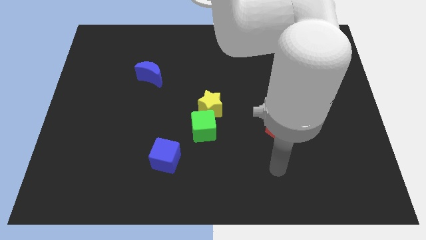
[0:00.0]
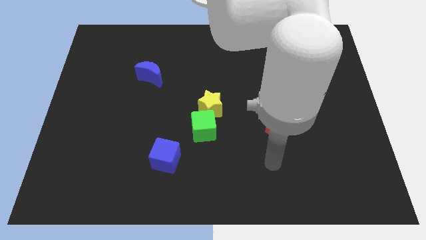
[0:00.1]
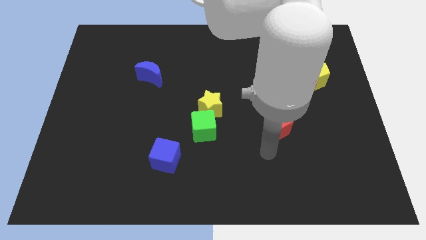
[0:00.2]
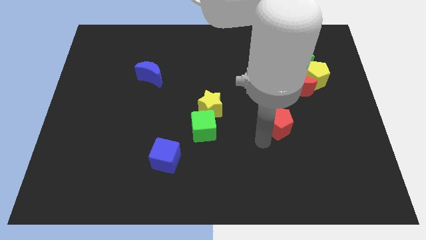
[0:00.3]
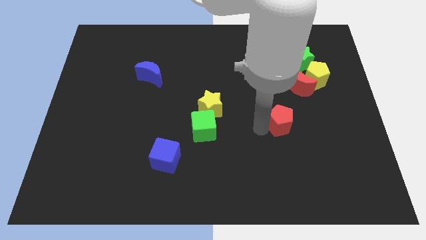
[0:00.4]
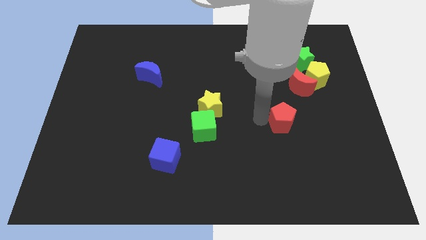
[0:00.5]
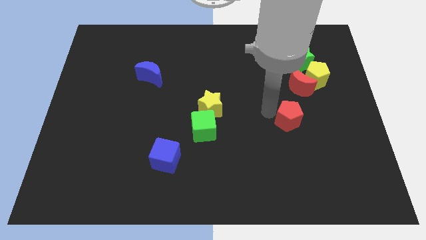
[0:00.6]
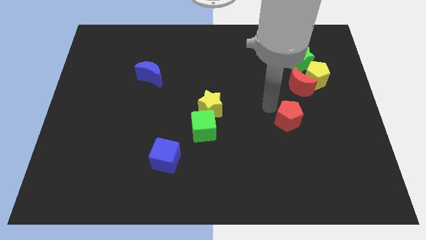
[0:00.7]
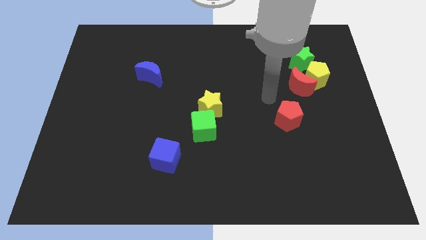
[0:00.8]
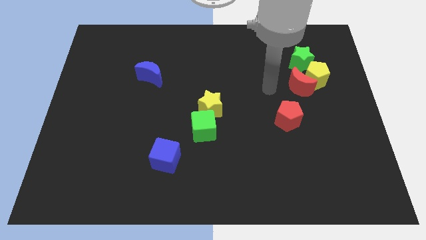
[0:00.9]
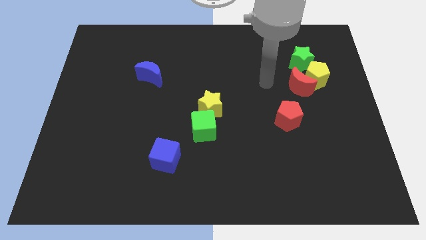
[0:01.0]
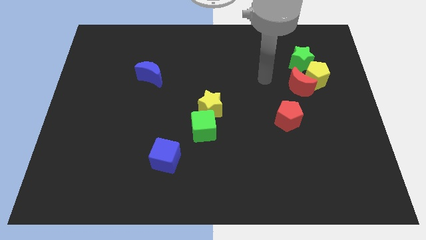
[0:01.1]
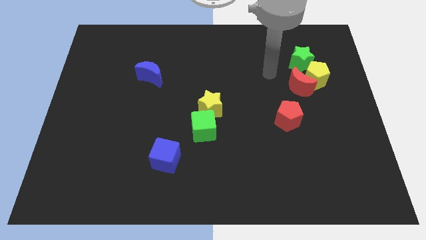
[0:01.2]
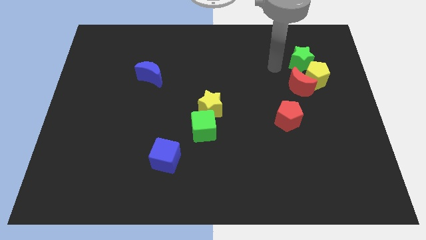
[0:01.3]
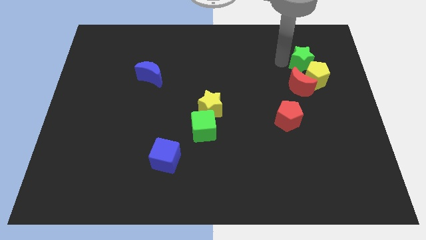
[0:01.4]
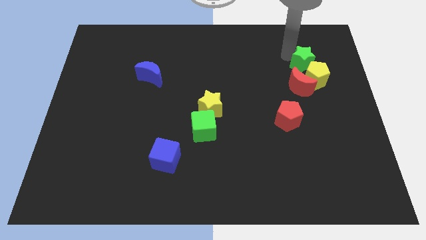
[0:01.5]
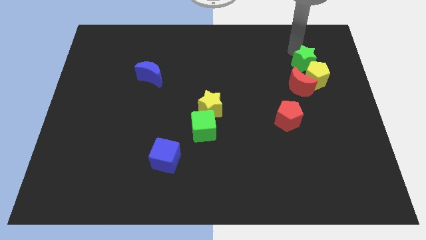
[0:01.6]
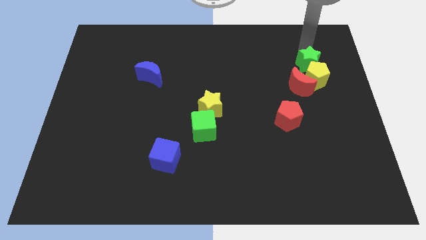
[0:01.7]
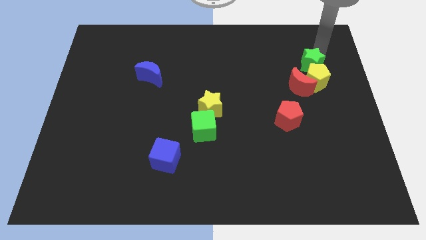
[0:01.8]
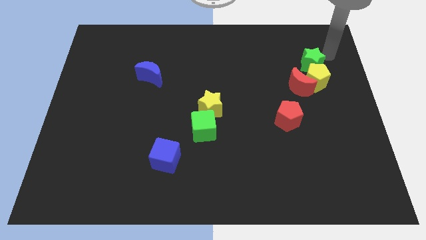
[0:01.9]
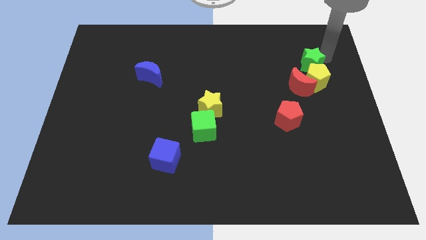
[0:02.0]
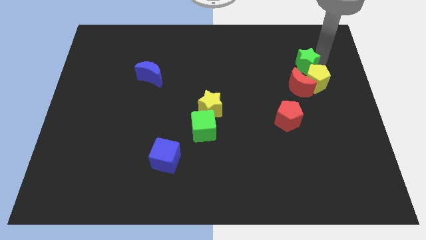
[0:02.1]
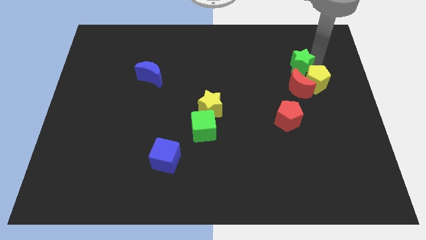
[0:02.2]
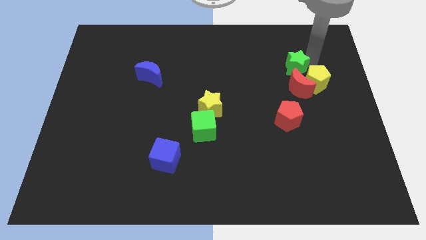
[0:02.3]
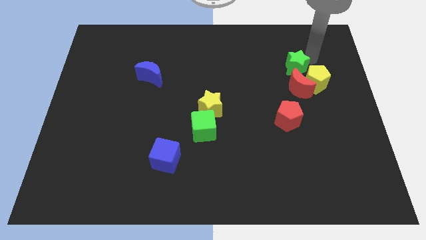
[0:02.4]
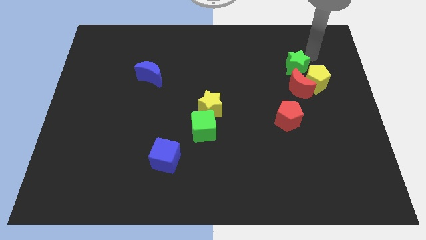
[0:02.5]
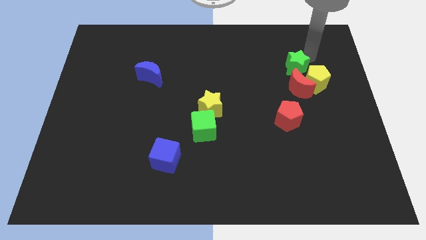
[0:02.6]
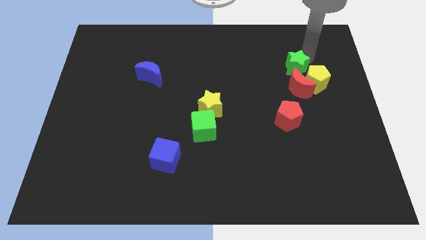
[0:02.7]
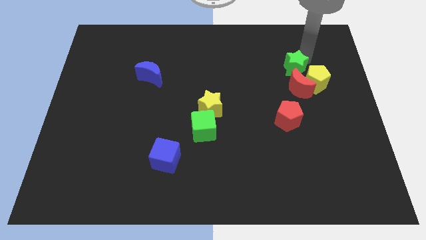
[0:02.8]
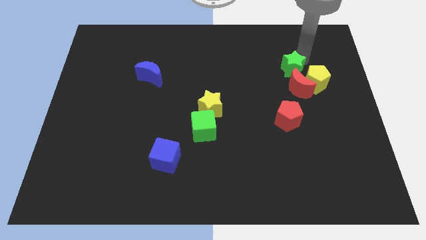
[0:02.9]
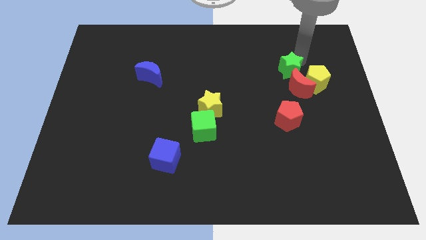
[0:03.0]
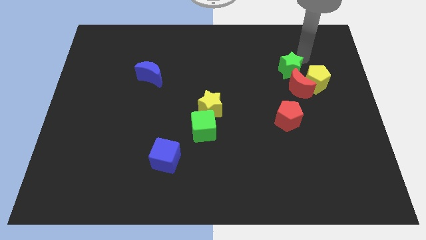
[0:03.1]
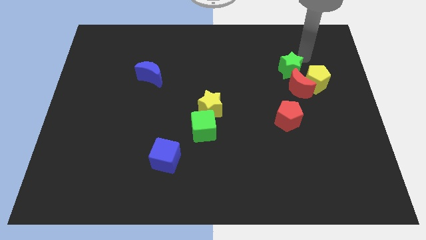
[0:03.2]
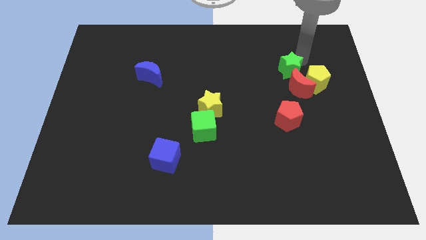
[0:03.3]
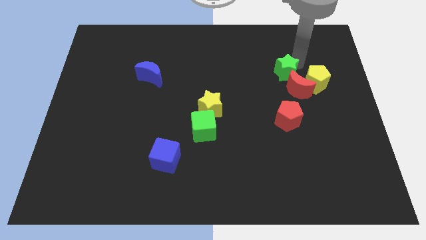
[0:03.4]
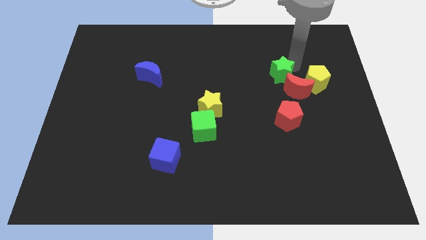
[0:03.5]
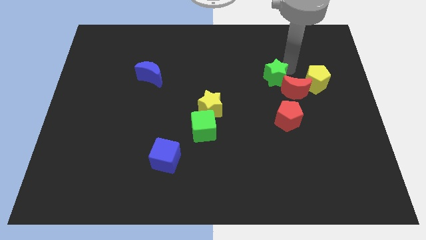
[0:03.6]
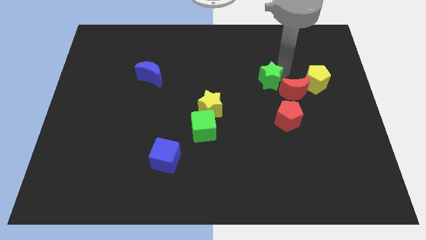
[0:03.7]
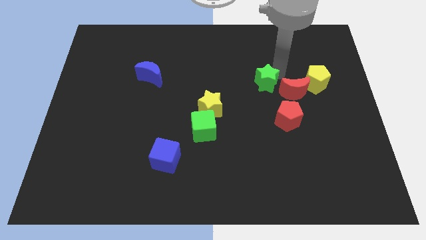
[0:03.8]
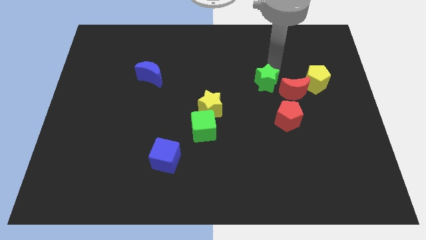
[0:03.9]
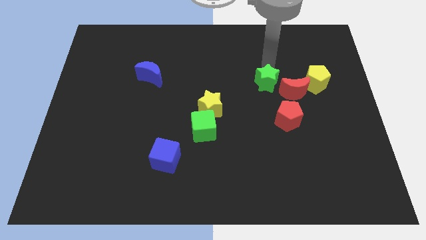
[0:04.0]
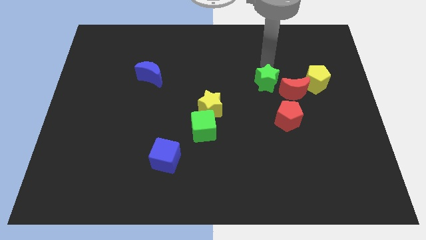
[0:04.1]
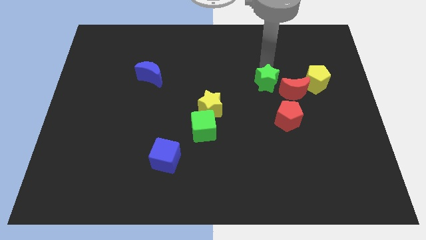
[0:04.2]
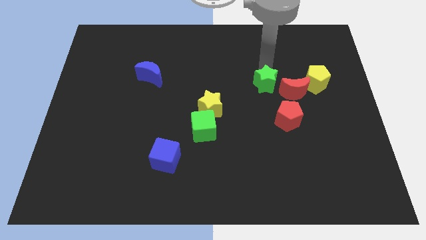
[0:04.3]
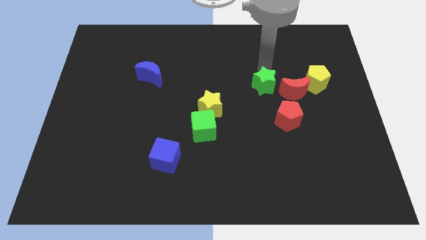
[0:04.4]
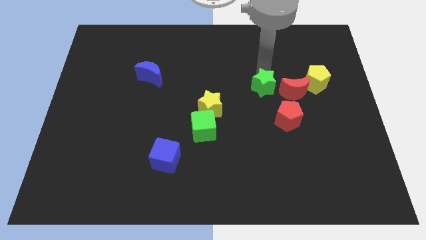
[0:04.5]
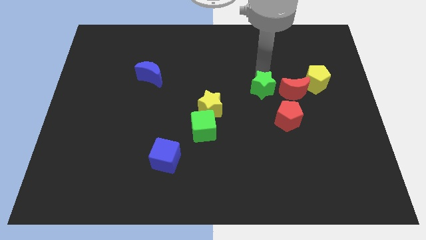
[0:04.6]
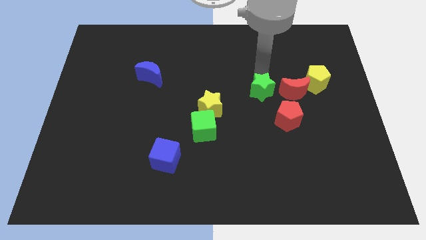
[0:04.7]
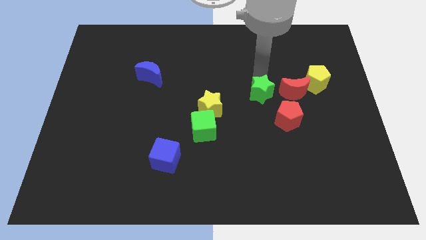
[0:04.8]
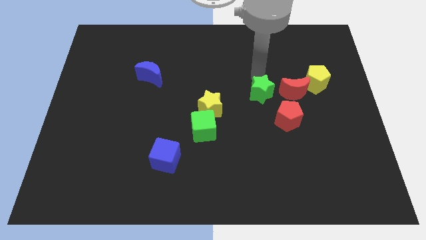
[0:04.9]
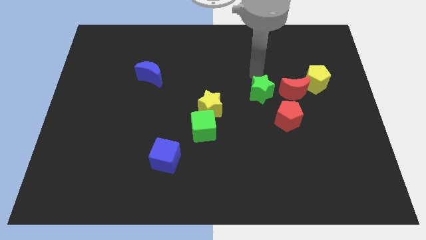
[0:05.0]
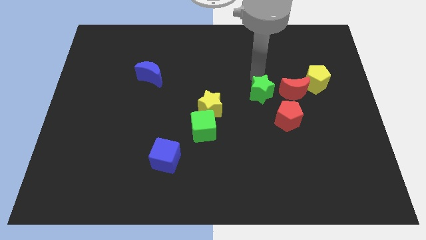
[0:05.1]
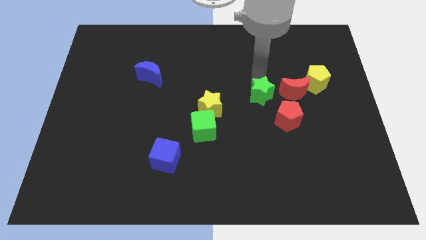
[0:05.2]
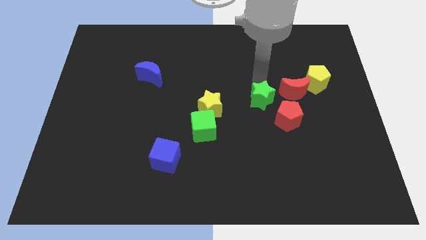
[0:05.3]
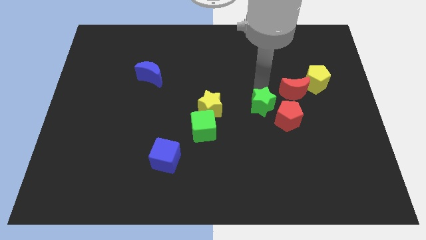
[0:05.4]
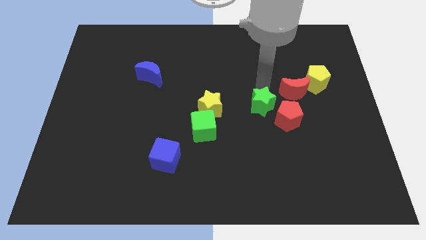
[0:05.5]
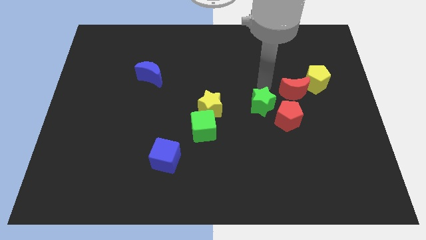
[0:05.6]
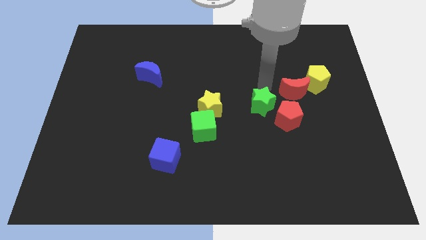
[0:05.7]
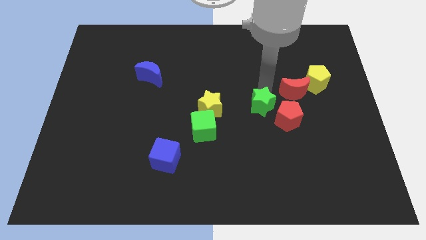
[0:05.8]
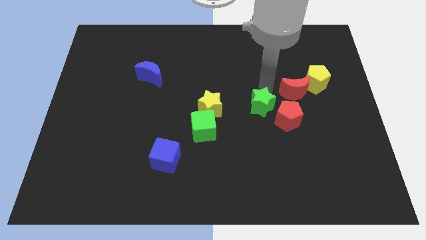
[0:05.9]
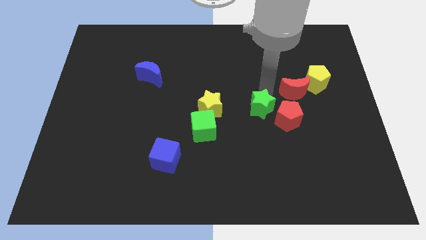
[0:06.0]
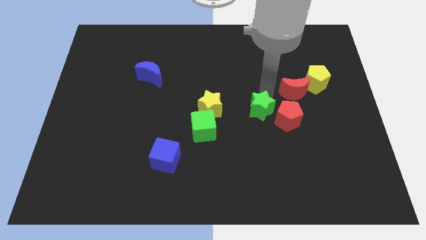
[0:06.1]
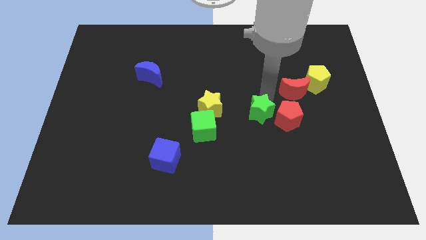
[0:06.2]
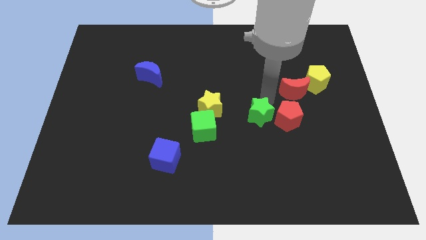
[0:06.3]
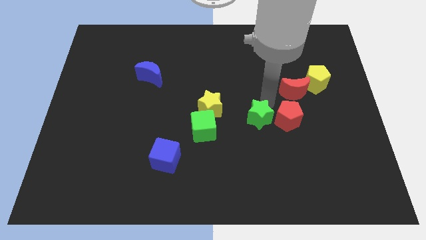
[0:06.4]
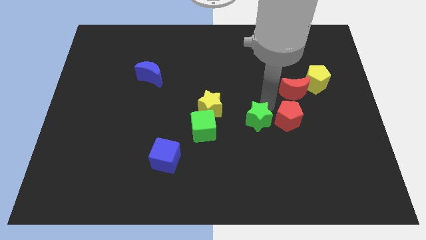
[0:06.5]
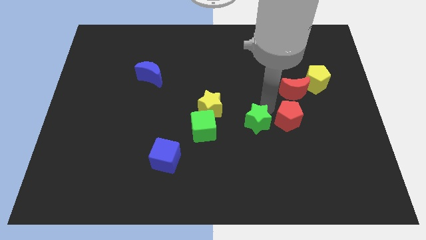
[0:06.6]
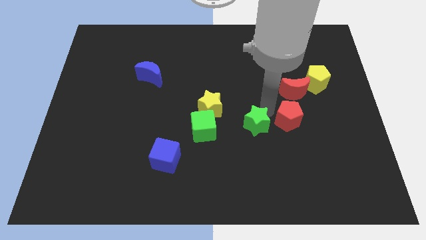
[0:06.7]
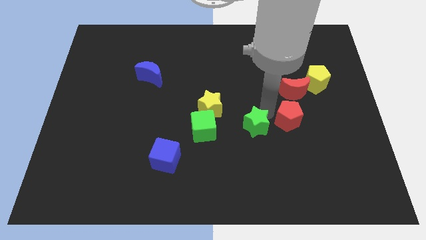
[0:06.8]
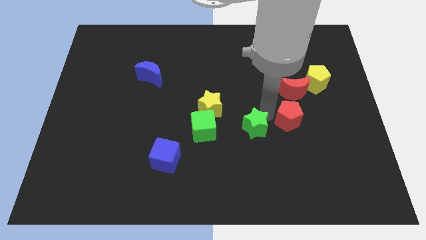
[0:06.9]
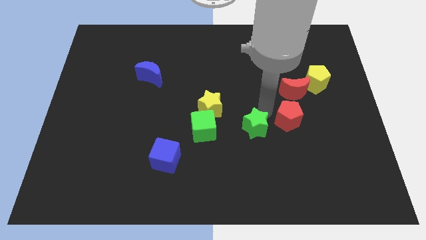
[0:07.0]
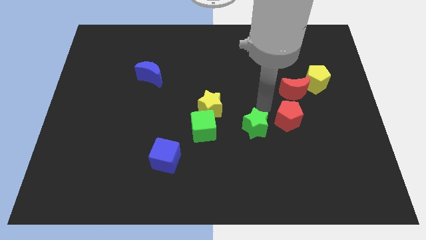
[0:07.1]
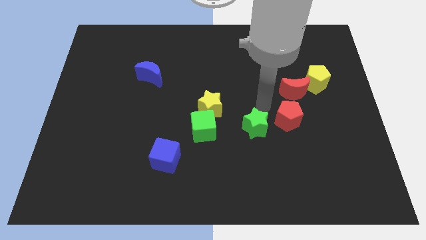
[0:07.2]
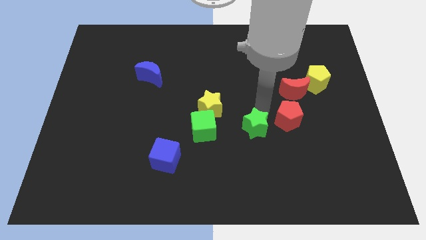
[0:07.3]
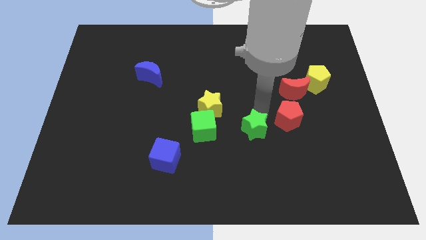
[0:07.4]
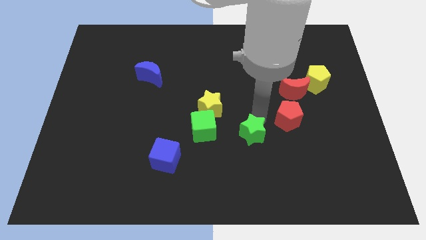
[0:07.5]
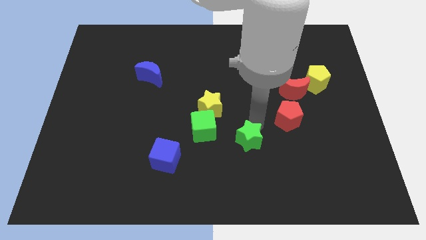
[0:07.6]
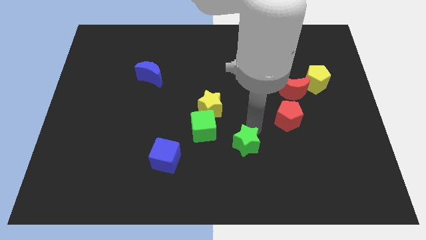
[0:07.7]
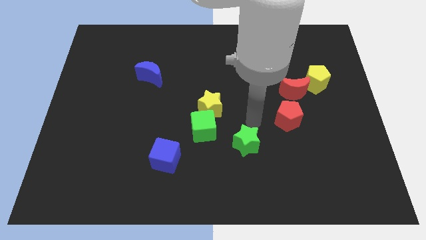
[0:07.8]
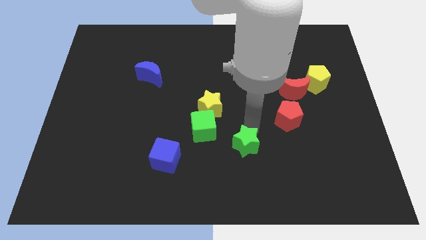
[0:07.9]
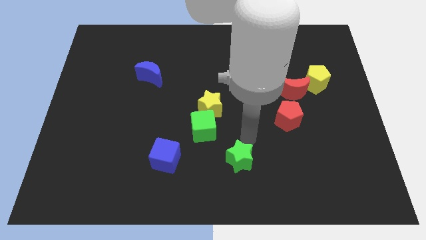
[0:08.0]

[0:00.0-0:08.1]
put the green star to the bottom side
